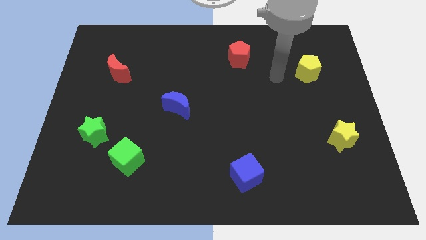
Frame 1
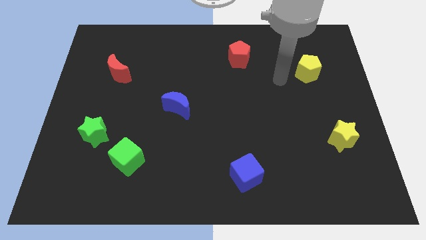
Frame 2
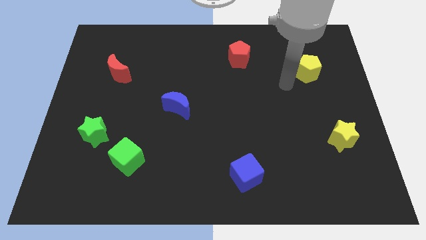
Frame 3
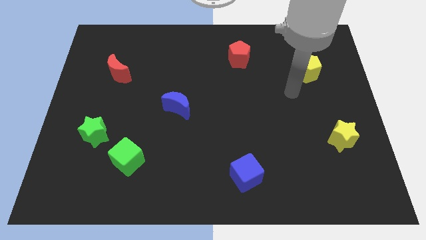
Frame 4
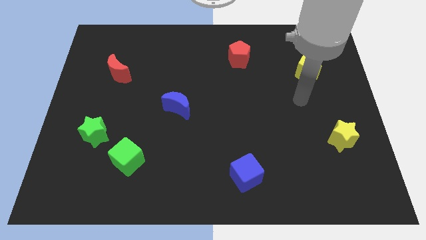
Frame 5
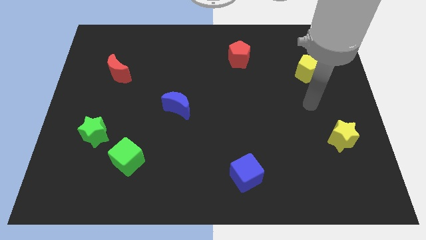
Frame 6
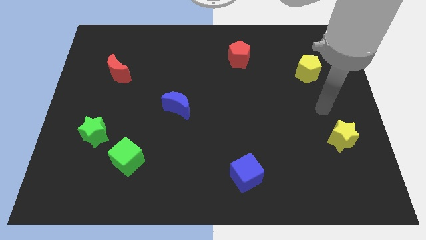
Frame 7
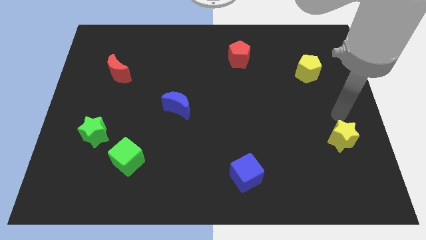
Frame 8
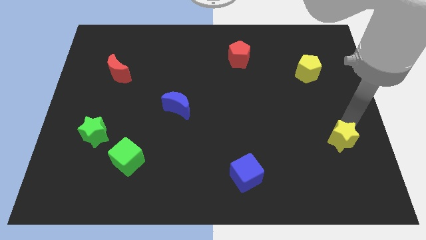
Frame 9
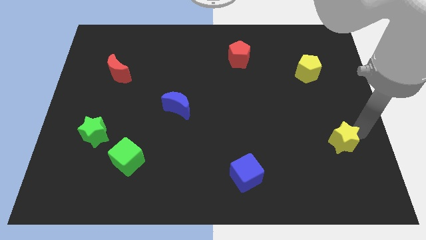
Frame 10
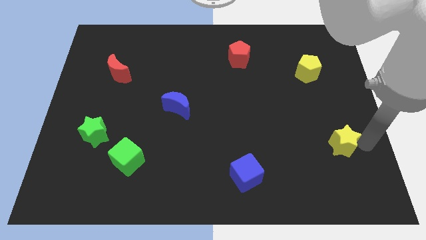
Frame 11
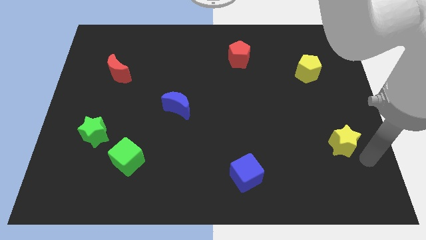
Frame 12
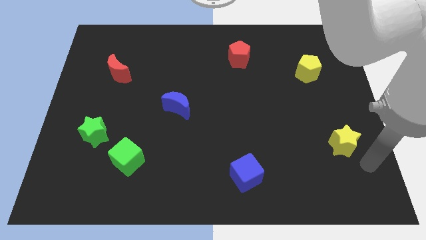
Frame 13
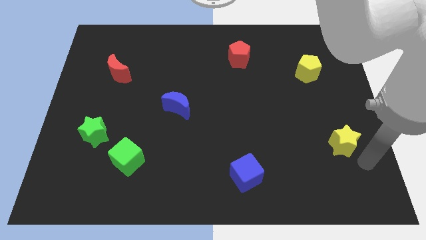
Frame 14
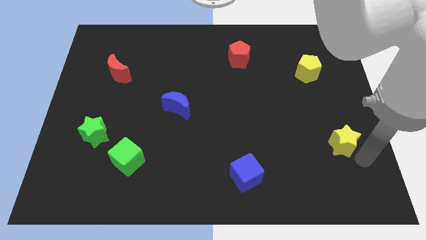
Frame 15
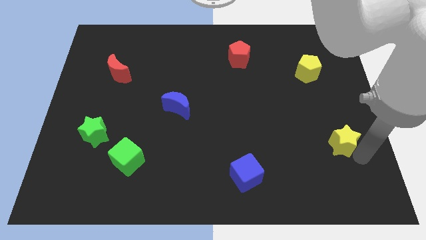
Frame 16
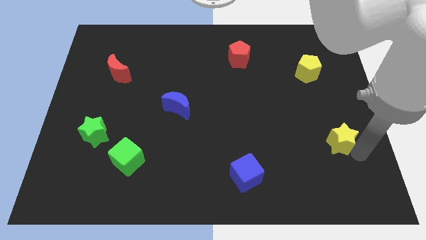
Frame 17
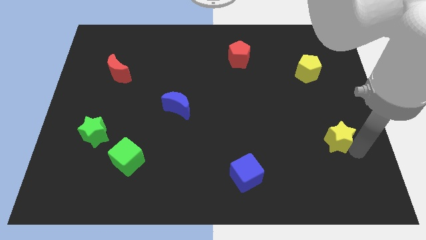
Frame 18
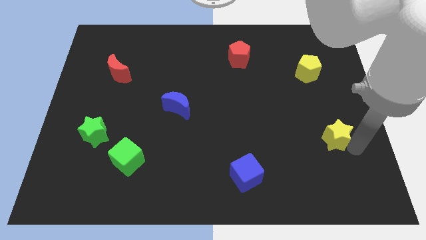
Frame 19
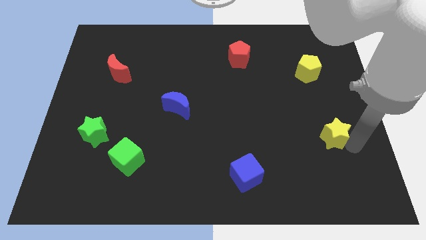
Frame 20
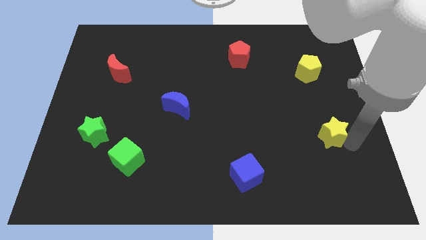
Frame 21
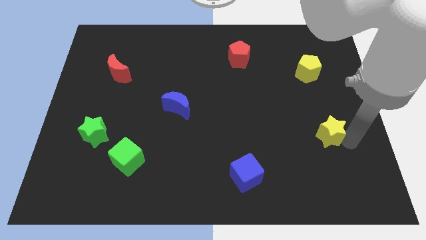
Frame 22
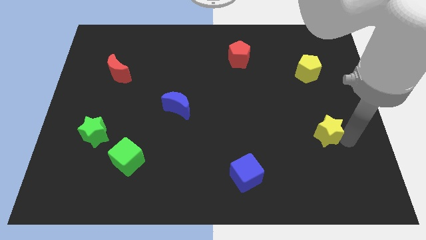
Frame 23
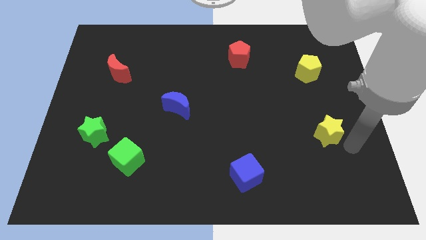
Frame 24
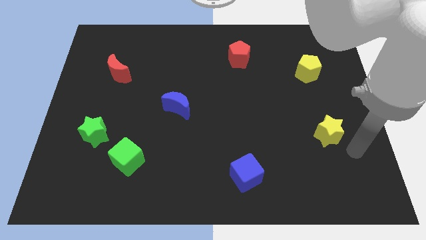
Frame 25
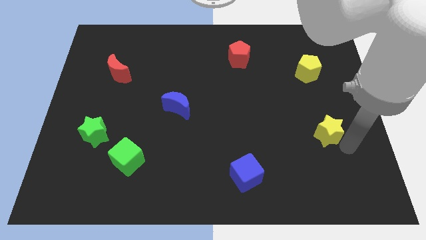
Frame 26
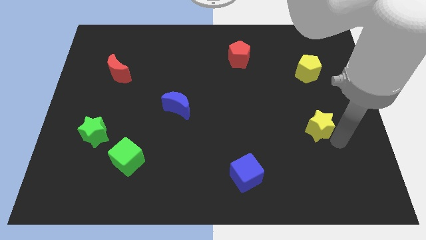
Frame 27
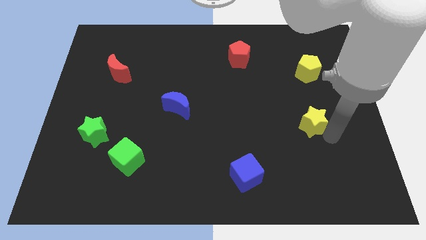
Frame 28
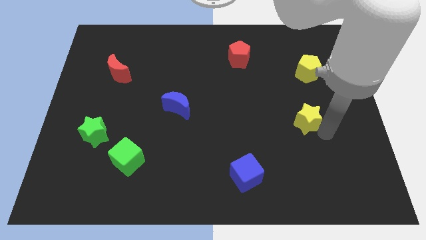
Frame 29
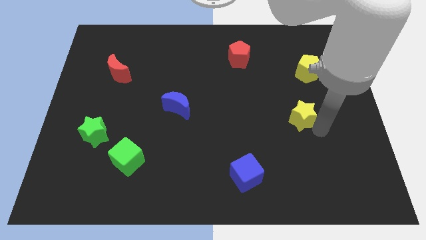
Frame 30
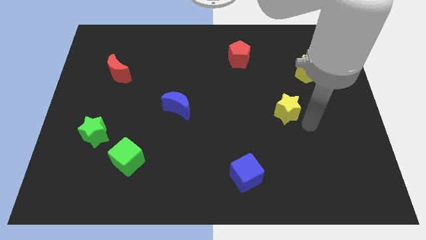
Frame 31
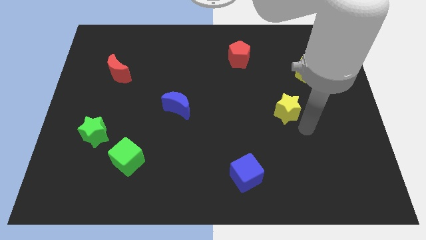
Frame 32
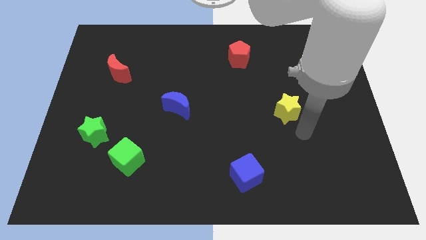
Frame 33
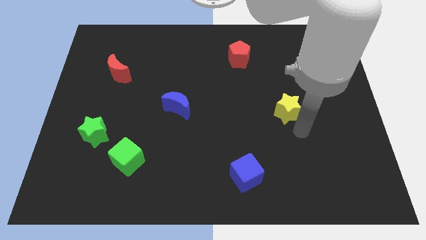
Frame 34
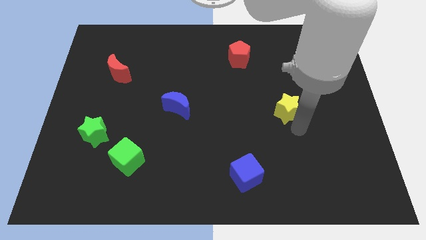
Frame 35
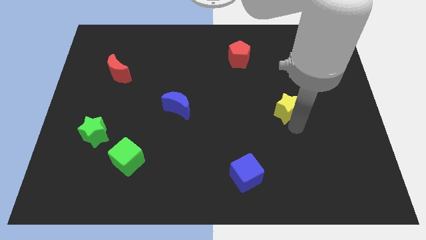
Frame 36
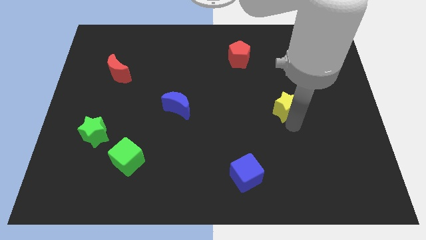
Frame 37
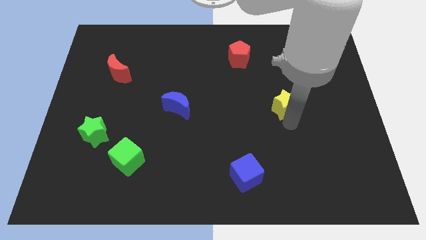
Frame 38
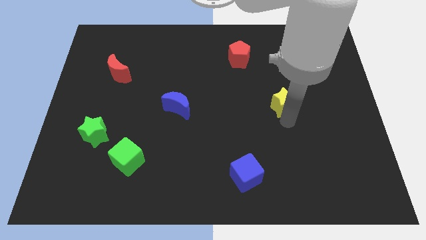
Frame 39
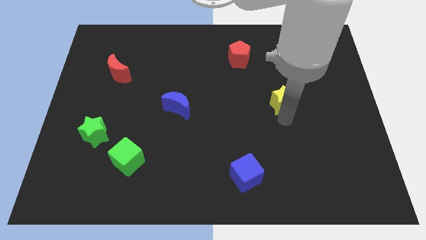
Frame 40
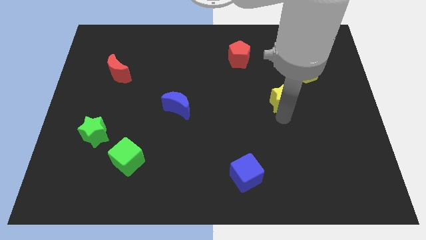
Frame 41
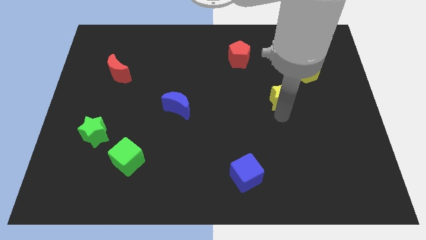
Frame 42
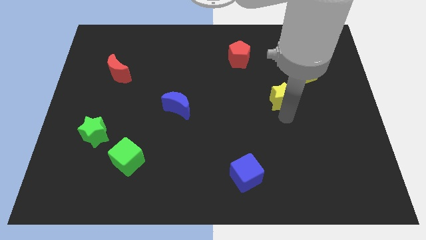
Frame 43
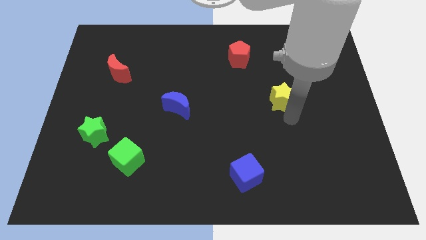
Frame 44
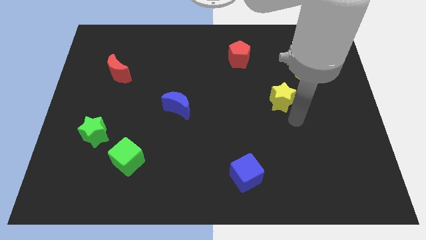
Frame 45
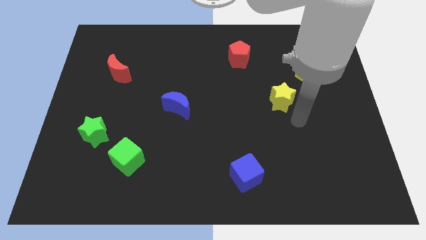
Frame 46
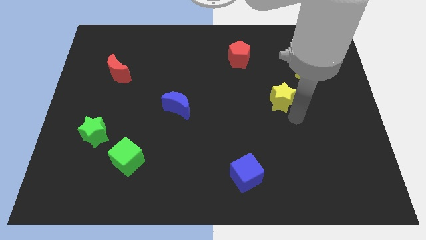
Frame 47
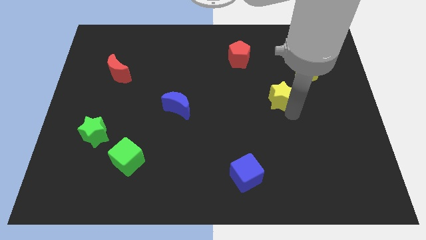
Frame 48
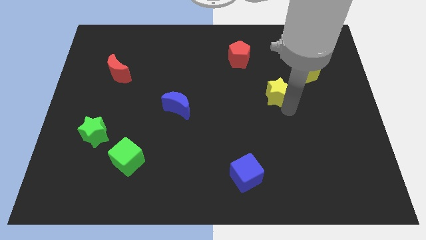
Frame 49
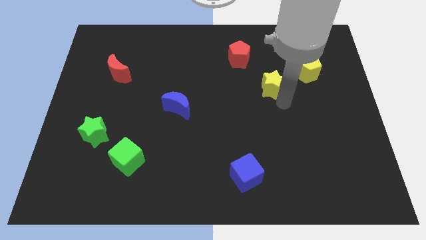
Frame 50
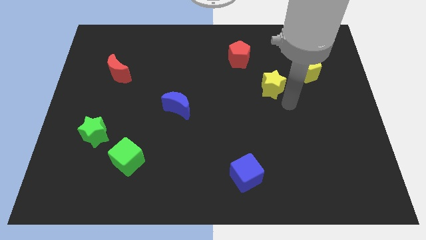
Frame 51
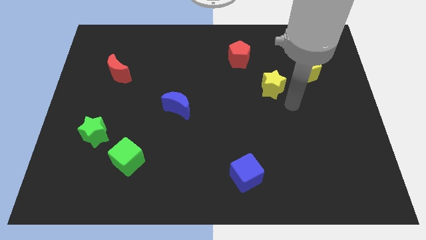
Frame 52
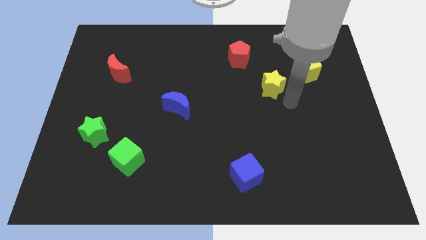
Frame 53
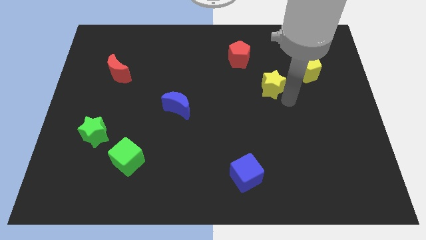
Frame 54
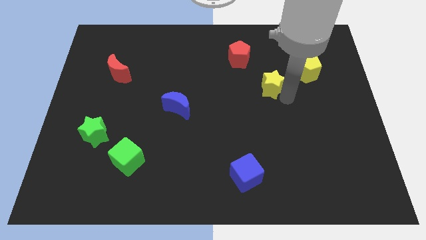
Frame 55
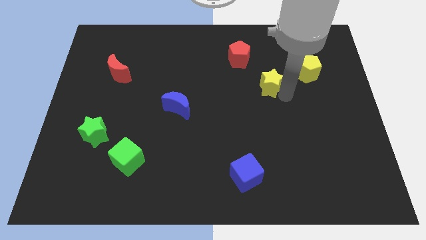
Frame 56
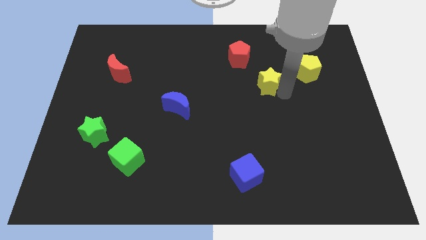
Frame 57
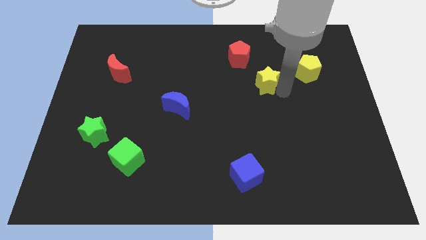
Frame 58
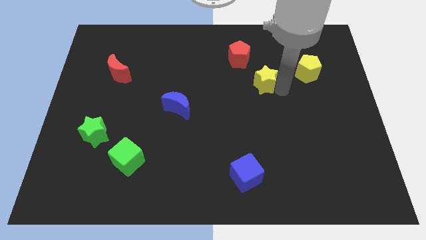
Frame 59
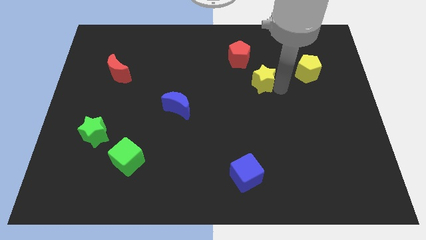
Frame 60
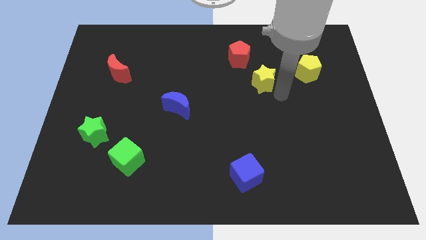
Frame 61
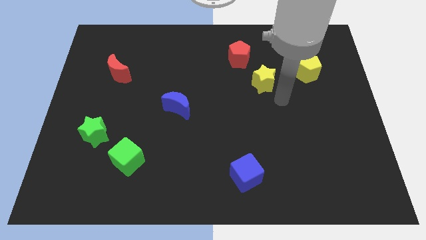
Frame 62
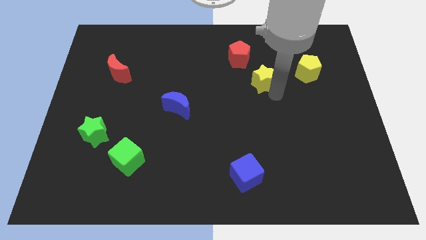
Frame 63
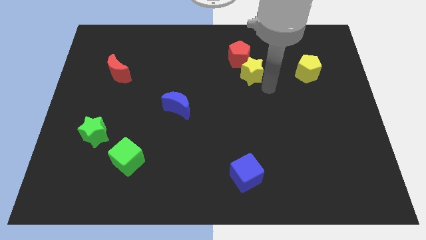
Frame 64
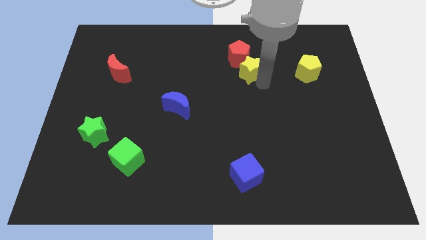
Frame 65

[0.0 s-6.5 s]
put the yellow star close to the red pentagon

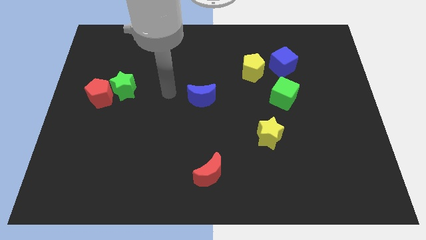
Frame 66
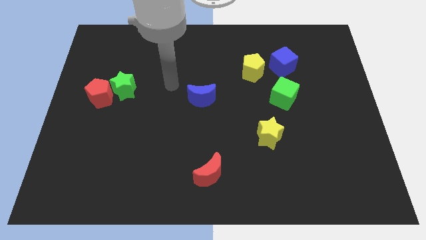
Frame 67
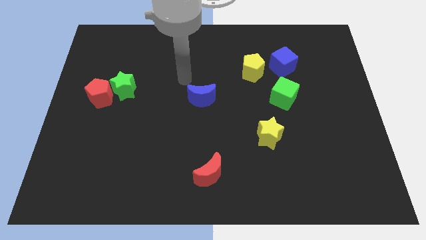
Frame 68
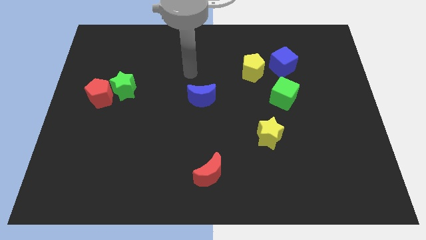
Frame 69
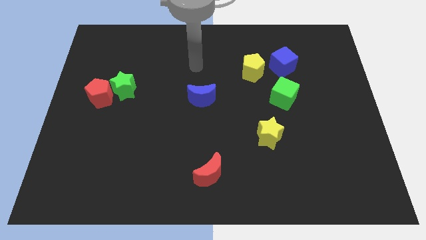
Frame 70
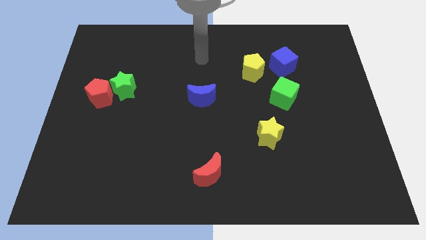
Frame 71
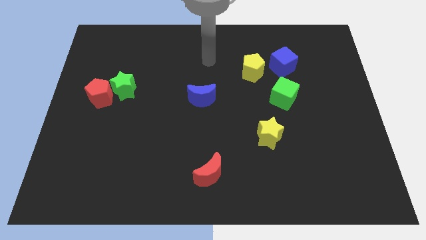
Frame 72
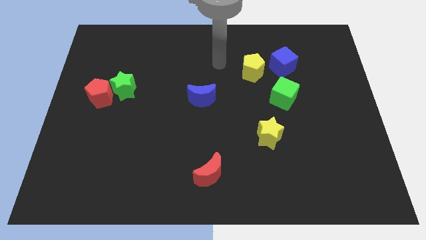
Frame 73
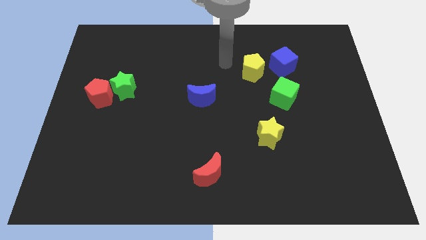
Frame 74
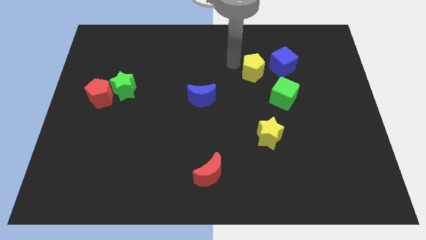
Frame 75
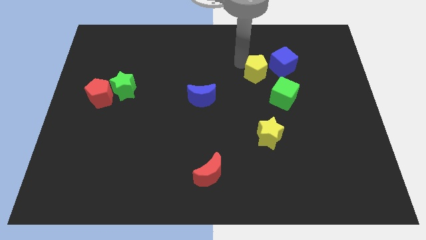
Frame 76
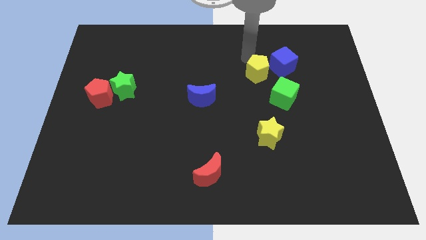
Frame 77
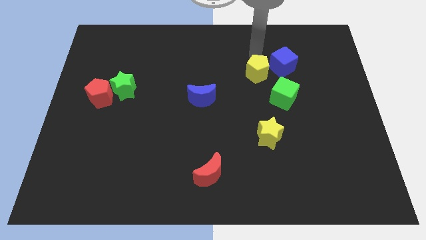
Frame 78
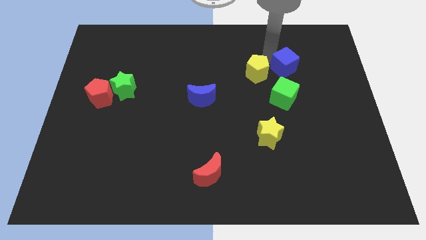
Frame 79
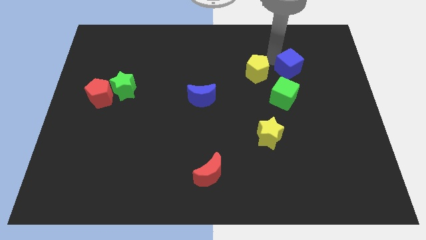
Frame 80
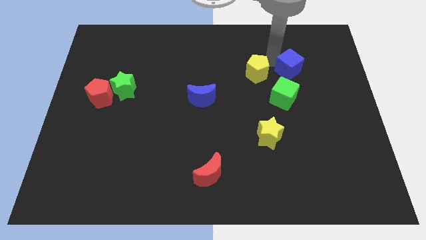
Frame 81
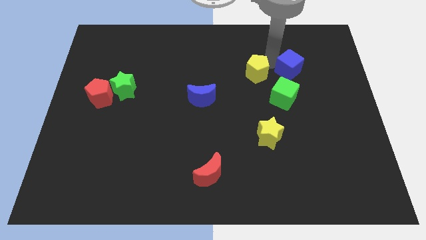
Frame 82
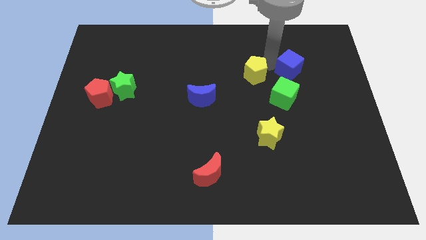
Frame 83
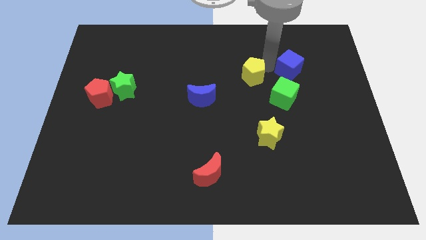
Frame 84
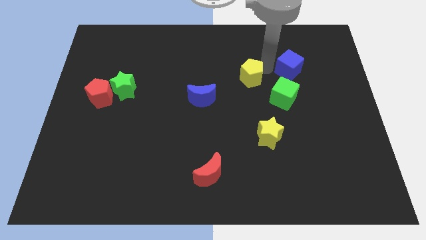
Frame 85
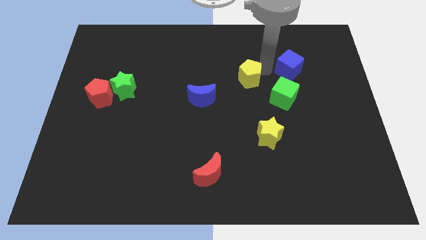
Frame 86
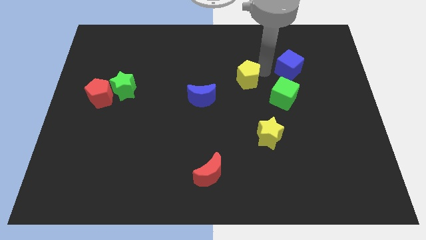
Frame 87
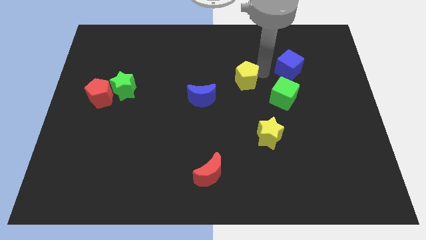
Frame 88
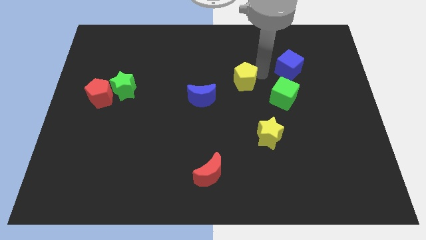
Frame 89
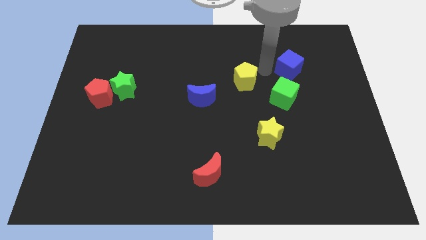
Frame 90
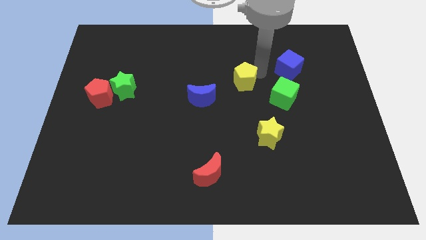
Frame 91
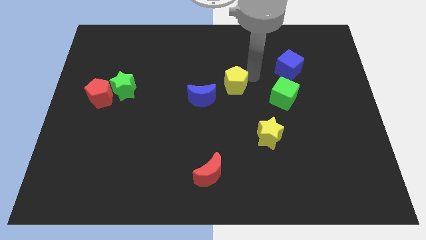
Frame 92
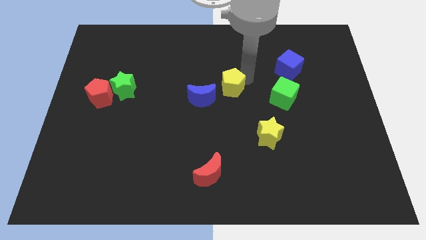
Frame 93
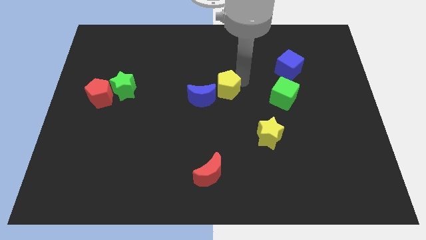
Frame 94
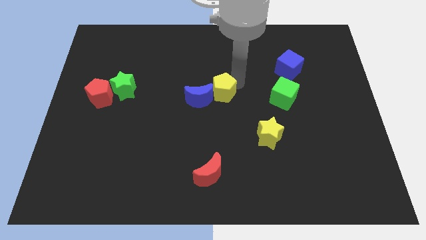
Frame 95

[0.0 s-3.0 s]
move the yellow pentagon close to the blue moon
